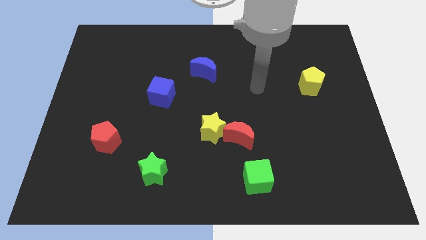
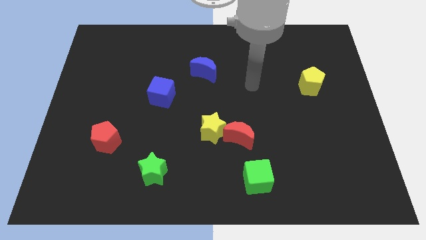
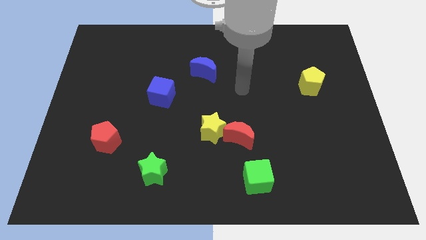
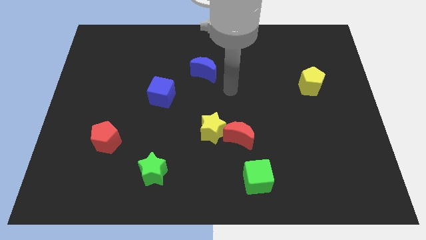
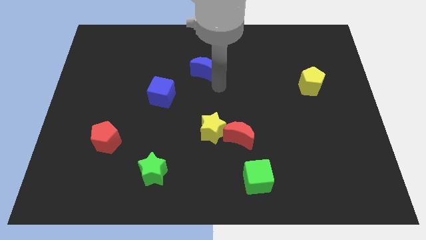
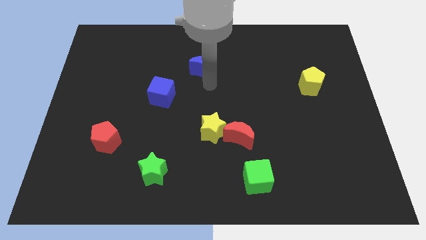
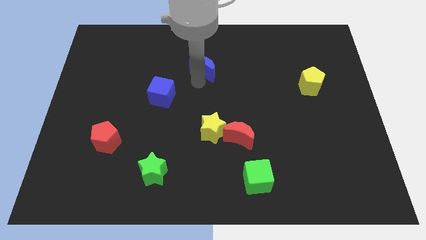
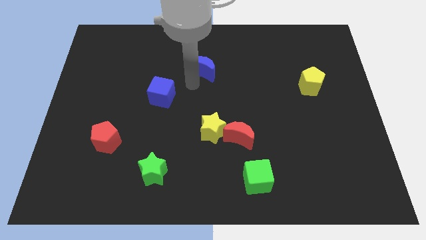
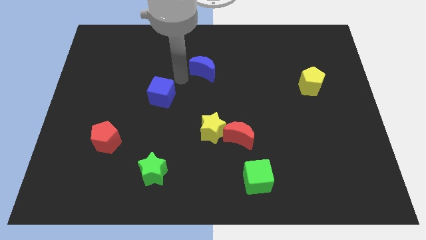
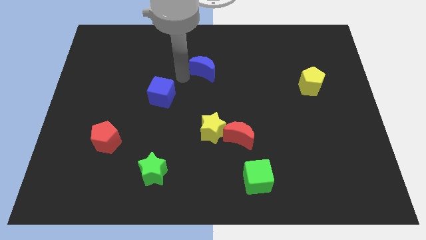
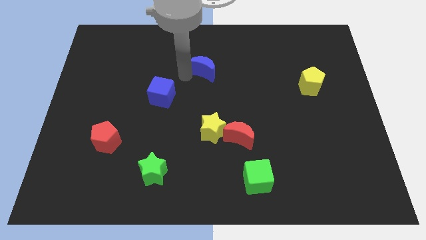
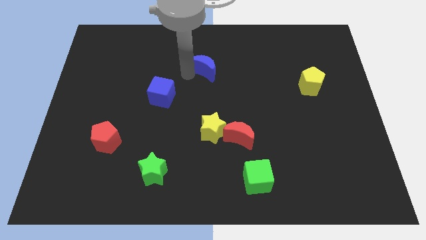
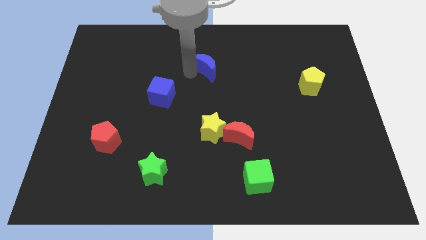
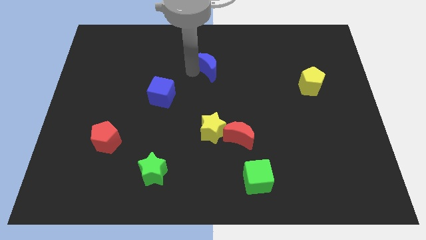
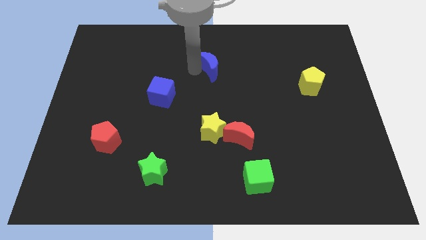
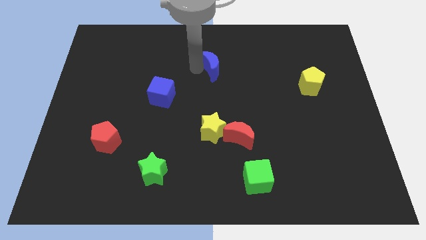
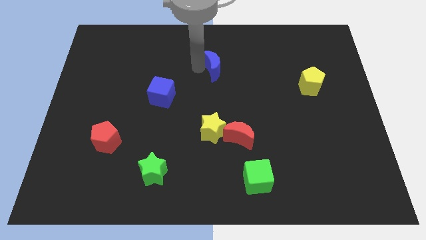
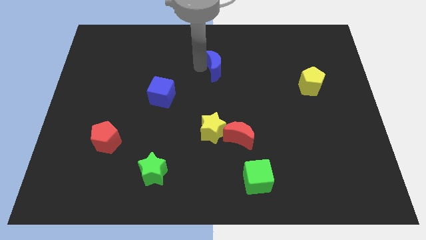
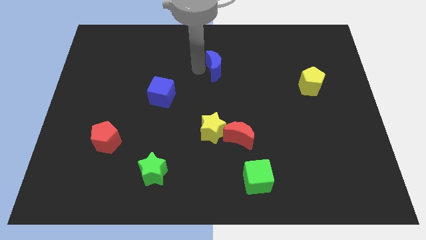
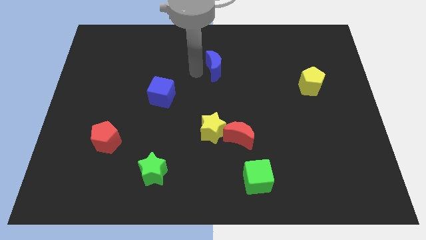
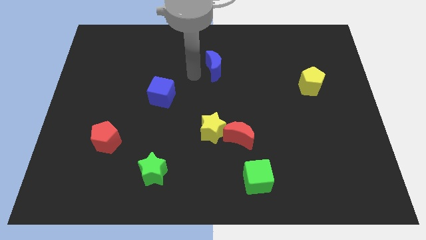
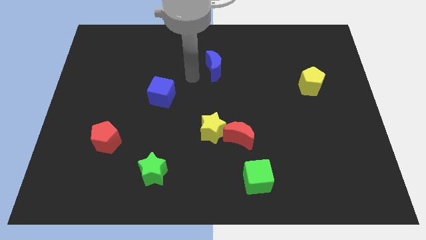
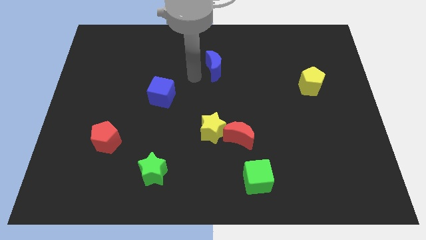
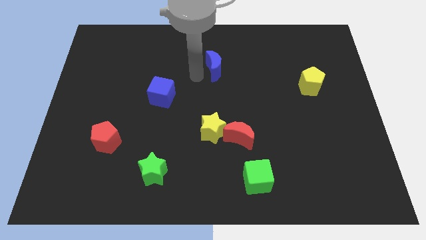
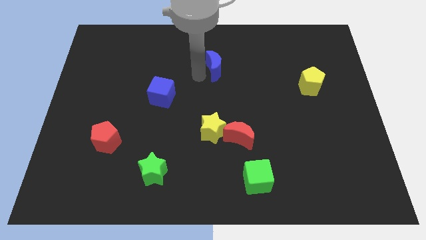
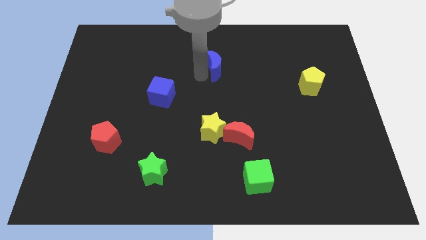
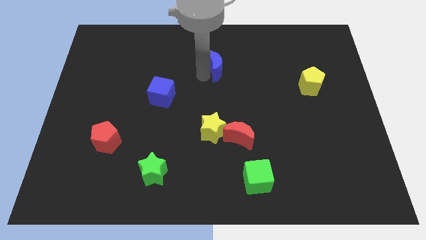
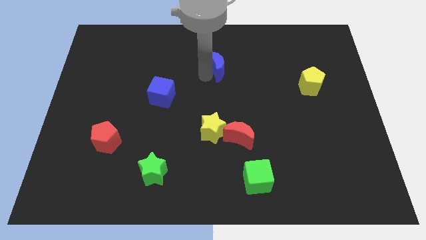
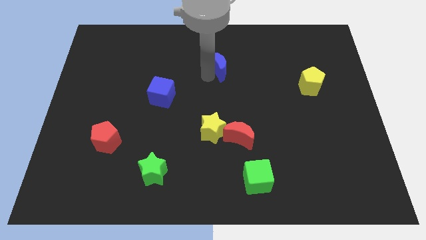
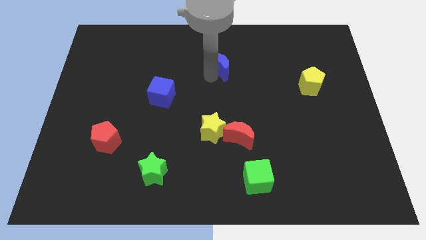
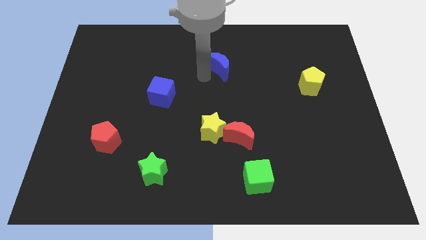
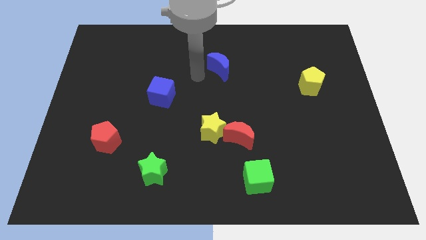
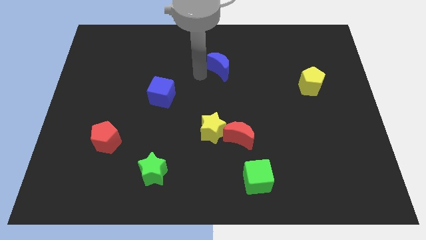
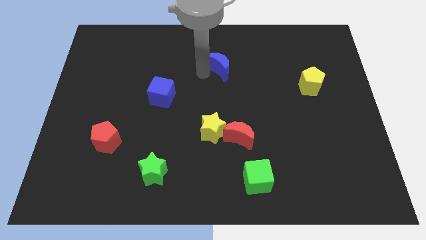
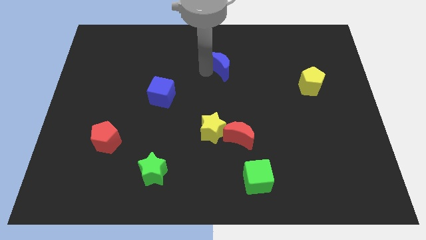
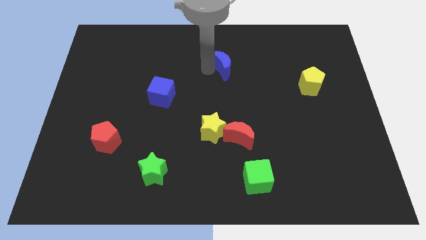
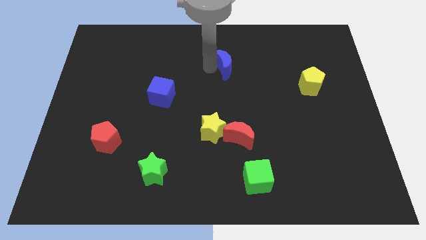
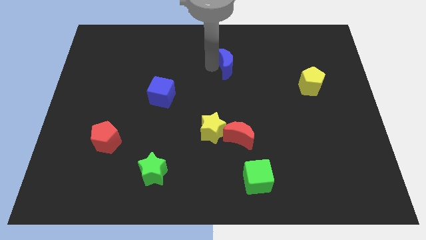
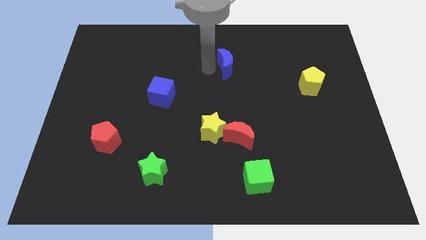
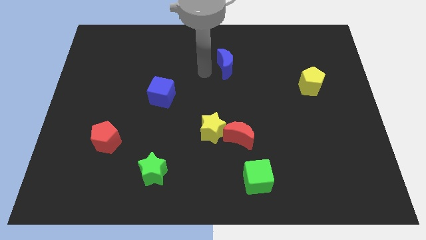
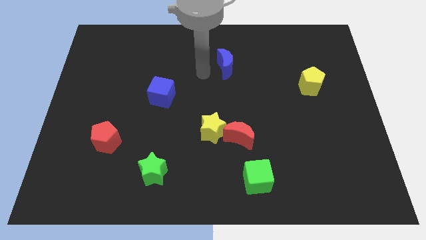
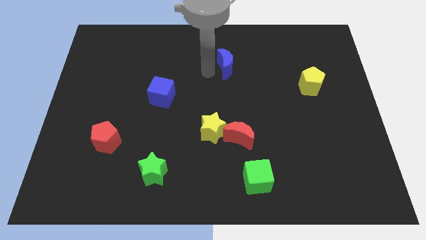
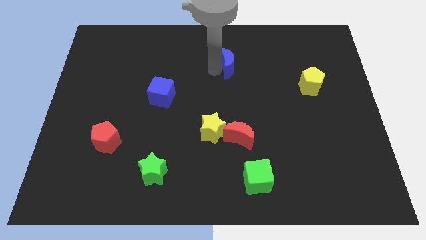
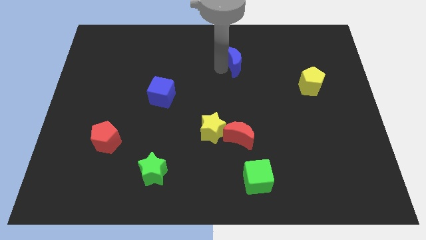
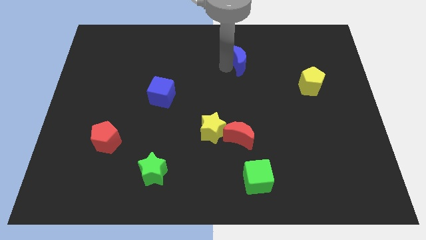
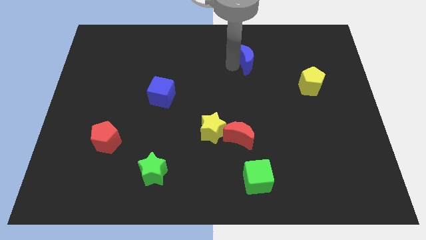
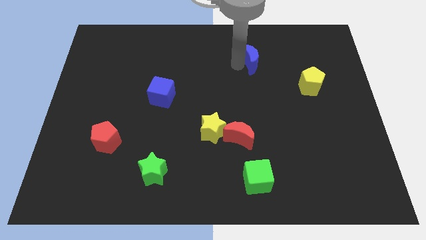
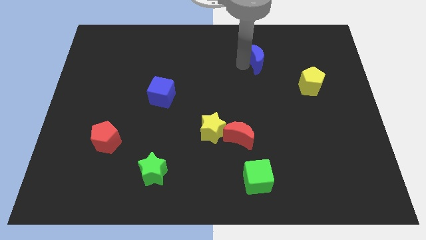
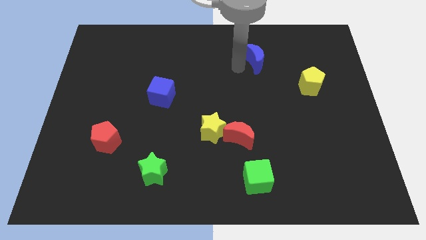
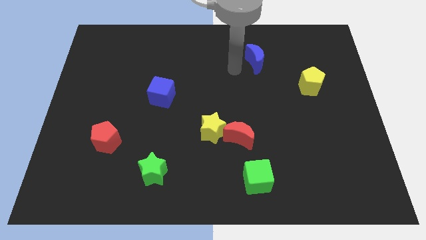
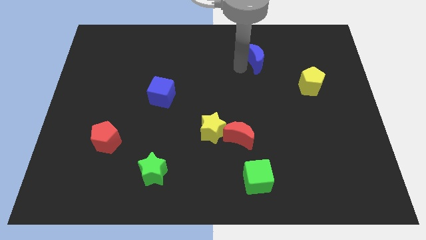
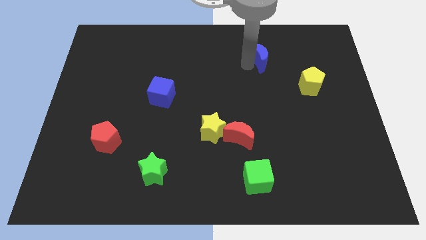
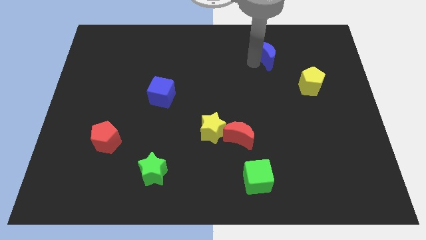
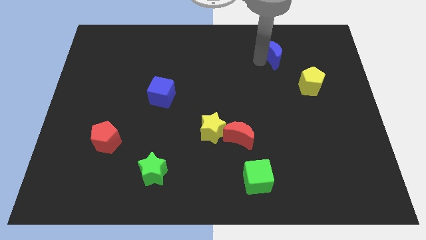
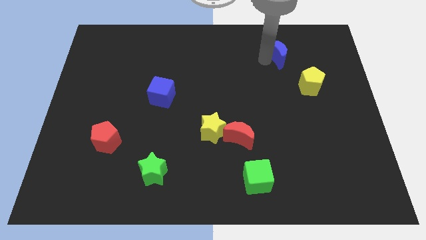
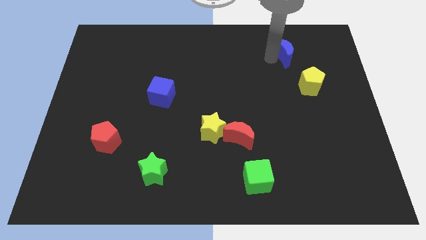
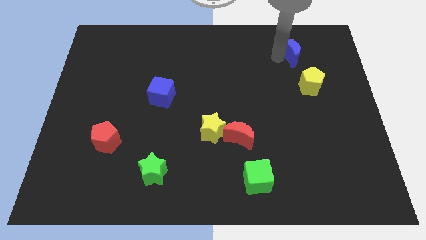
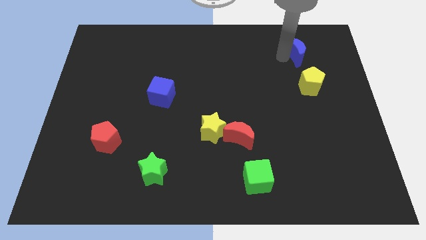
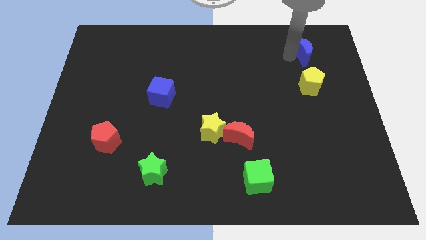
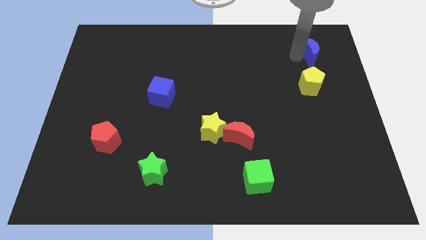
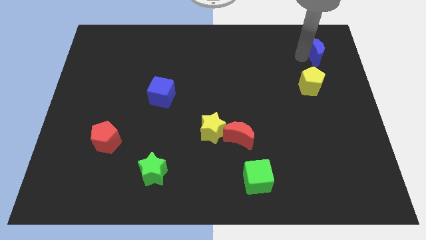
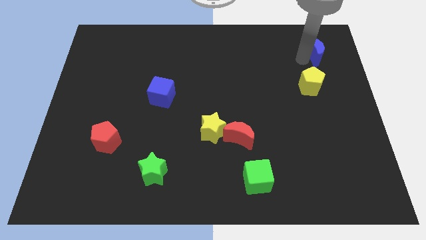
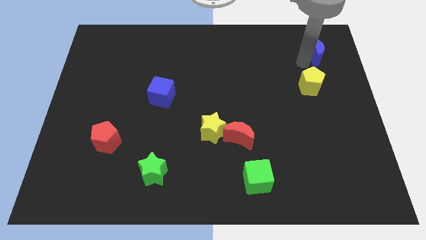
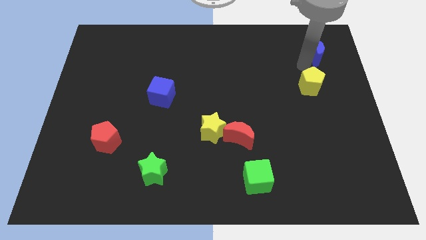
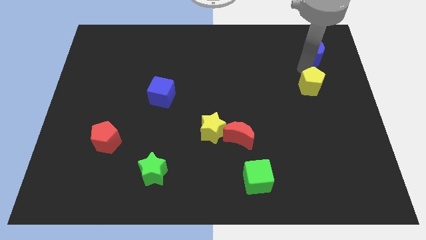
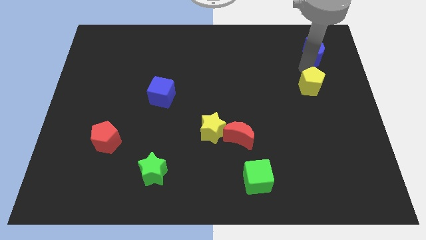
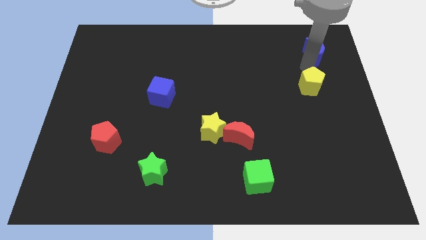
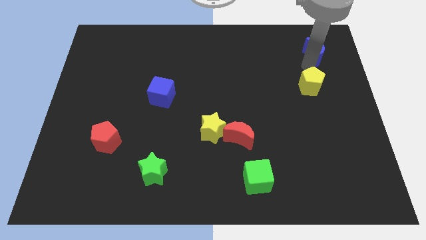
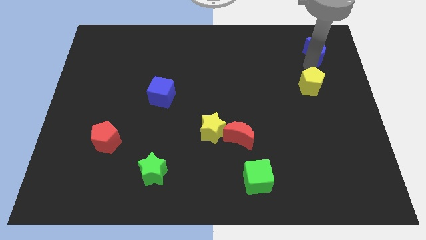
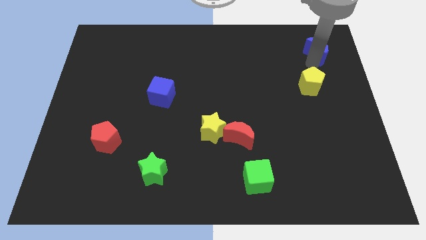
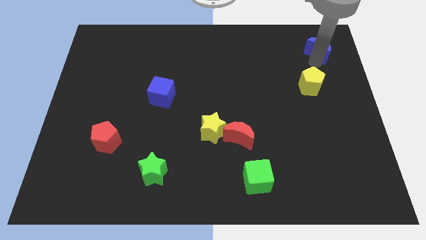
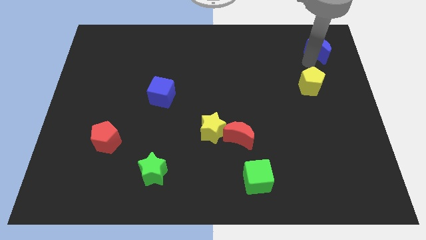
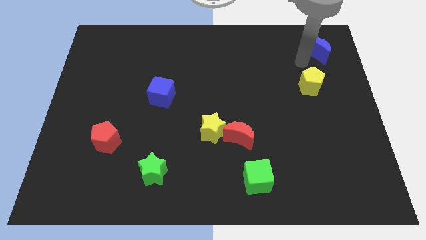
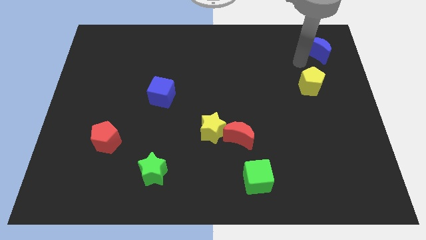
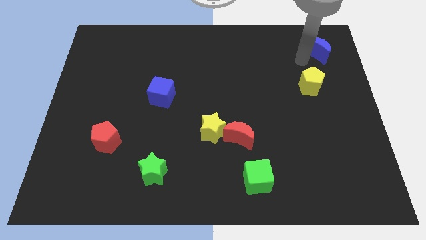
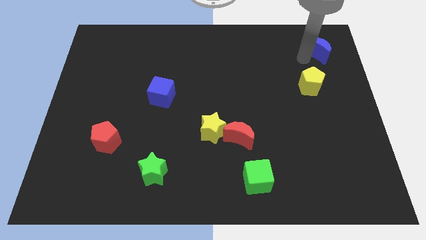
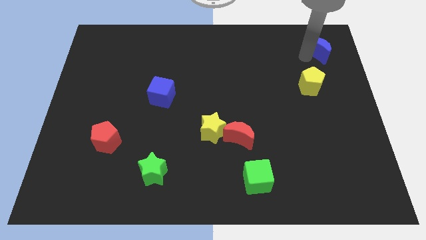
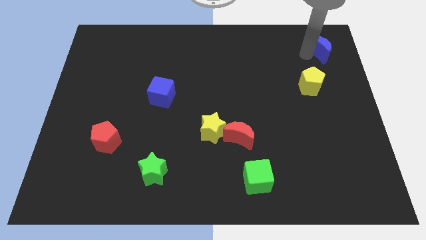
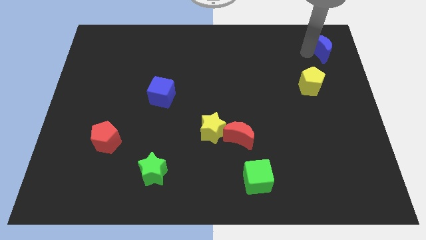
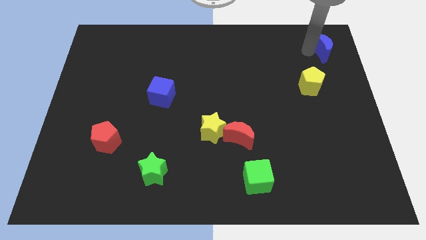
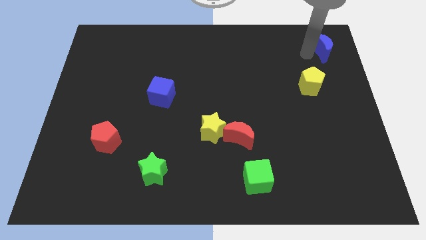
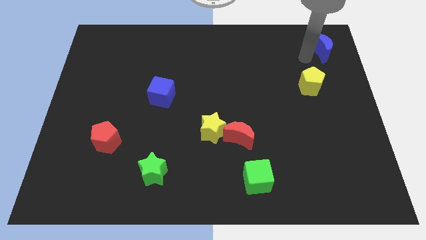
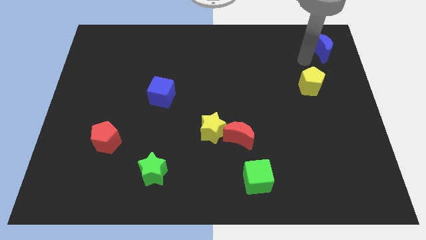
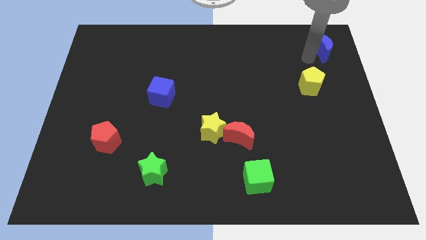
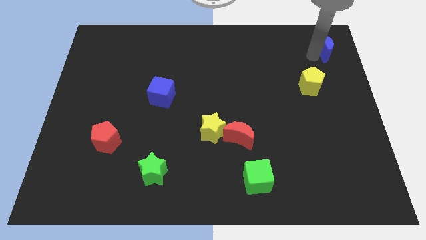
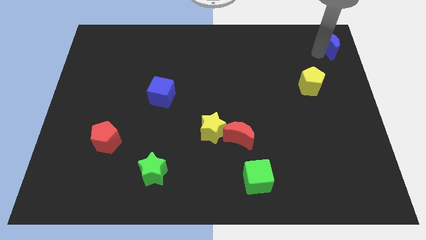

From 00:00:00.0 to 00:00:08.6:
move the blue moon to the top right of the board
